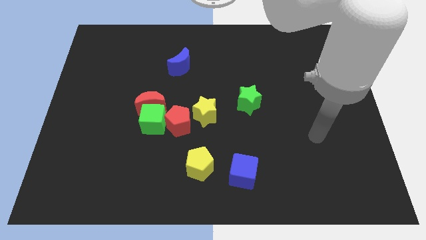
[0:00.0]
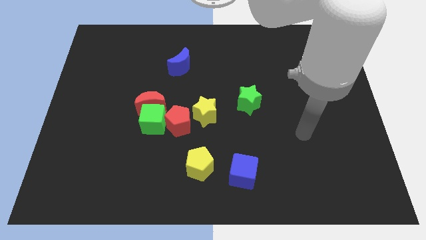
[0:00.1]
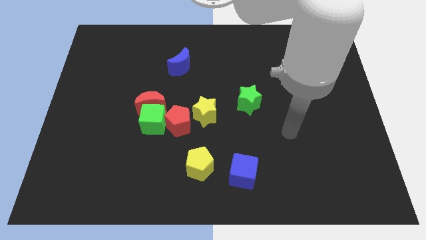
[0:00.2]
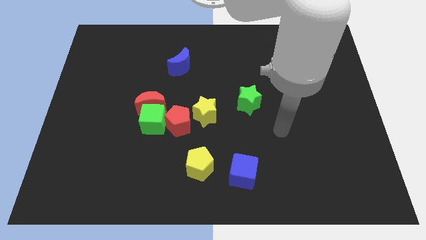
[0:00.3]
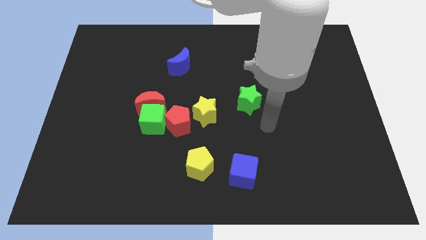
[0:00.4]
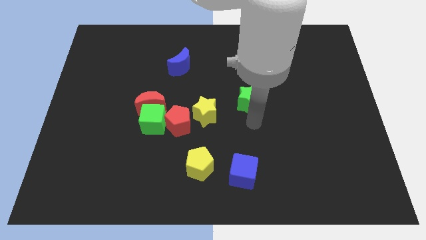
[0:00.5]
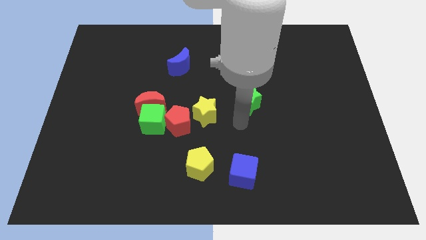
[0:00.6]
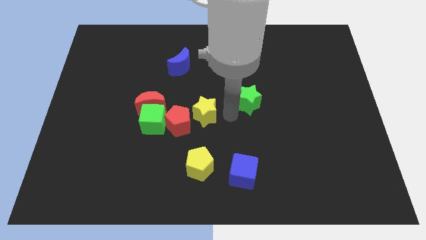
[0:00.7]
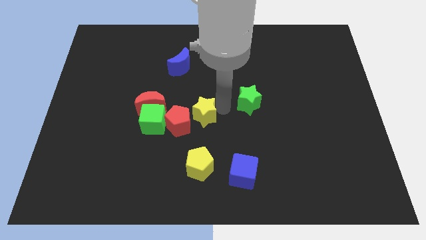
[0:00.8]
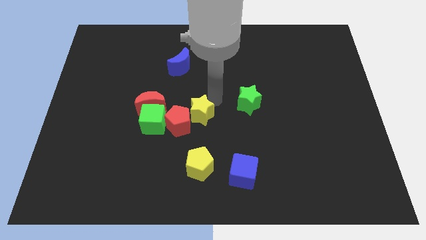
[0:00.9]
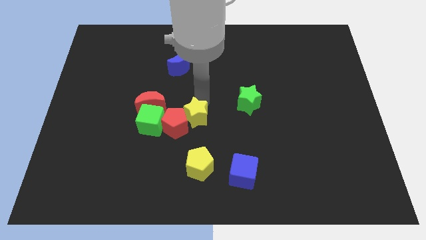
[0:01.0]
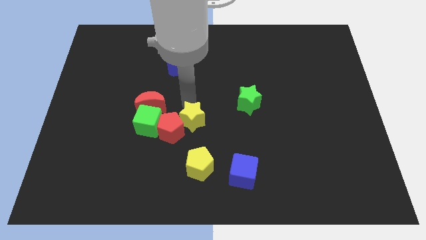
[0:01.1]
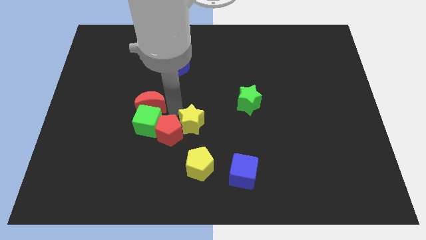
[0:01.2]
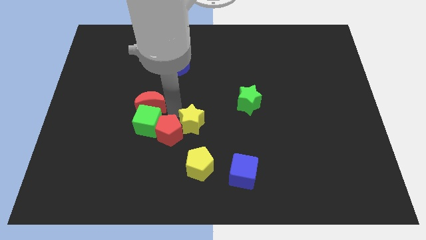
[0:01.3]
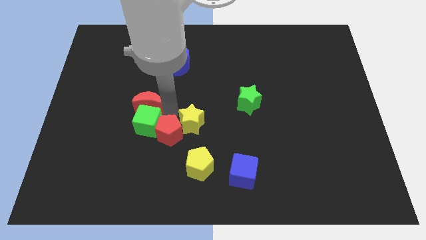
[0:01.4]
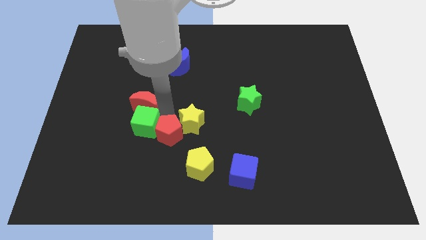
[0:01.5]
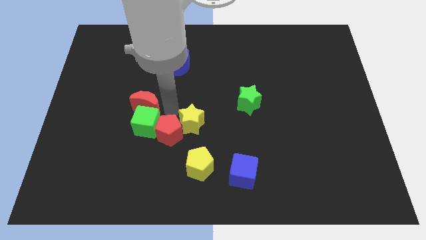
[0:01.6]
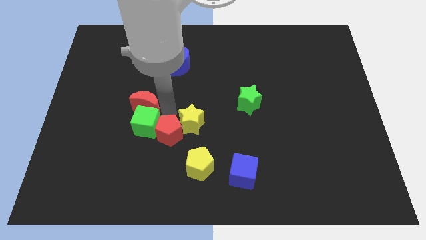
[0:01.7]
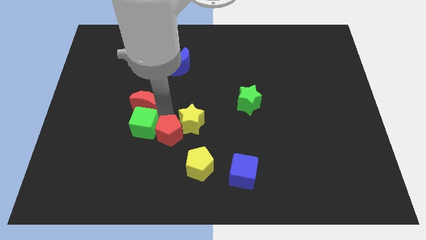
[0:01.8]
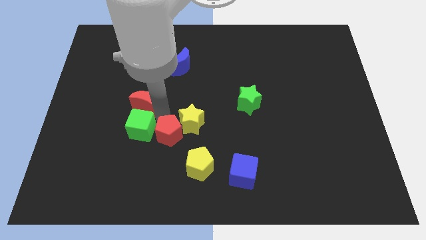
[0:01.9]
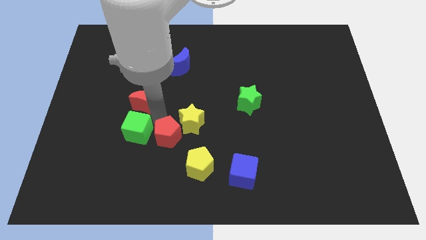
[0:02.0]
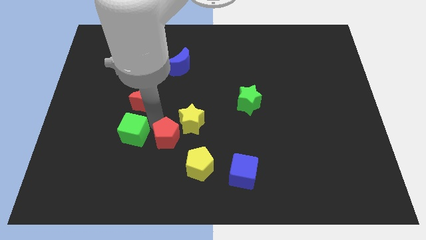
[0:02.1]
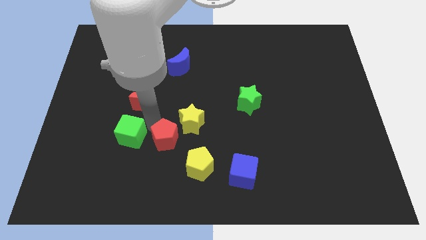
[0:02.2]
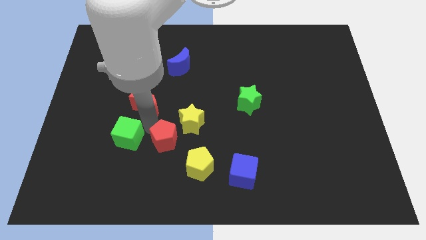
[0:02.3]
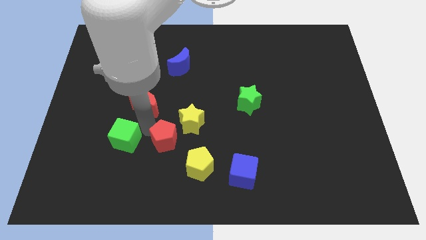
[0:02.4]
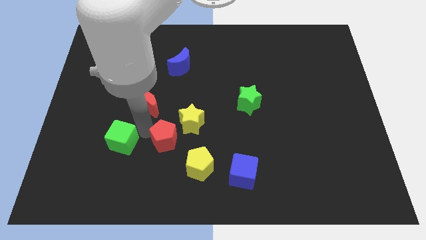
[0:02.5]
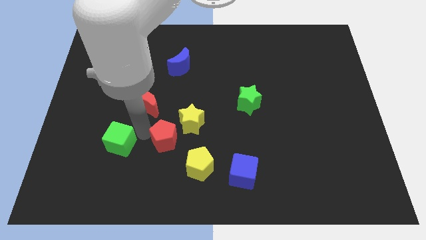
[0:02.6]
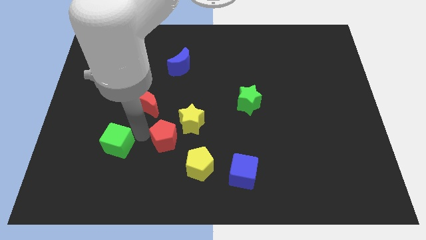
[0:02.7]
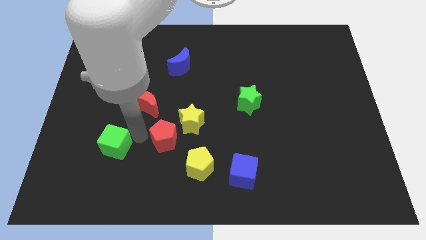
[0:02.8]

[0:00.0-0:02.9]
move the green cube away from the red moon and red pentagon

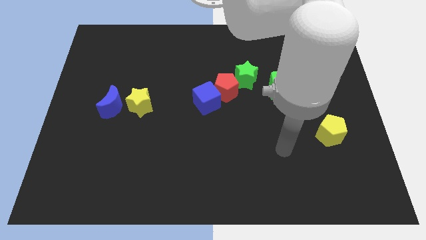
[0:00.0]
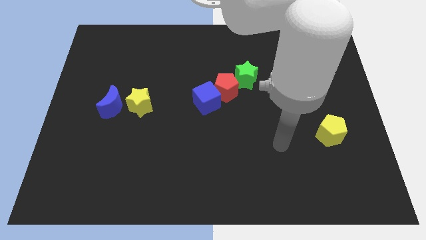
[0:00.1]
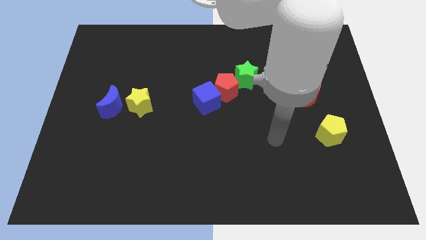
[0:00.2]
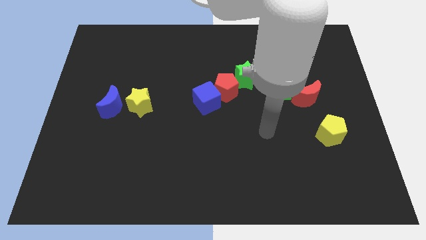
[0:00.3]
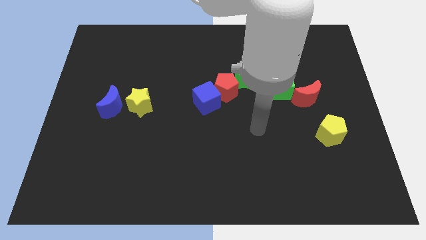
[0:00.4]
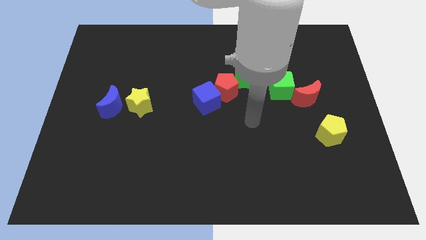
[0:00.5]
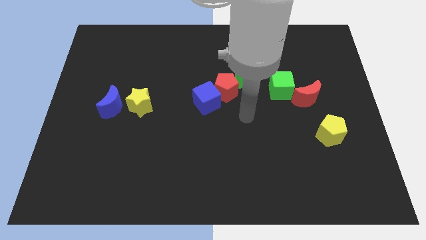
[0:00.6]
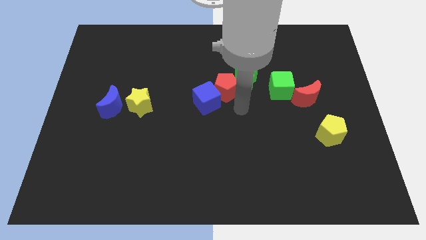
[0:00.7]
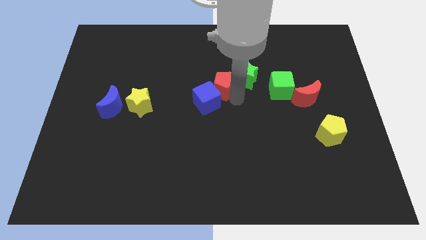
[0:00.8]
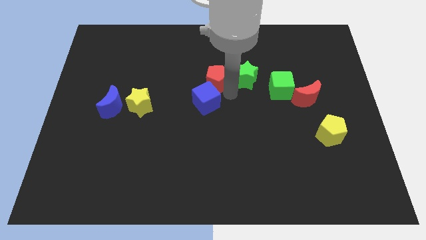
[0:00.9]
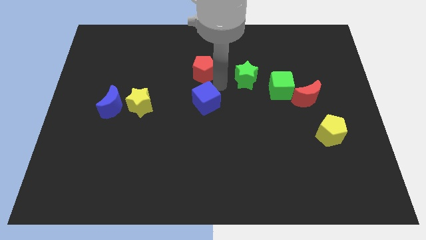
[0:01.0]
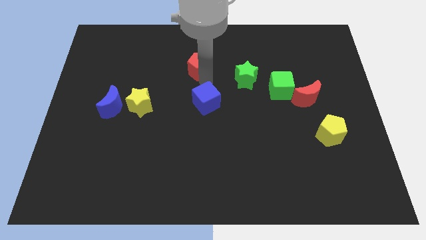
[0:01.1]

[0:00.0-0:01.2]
separate the blue cube from the red pentagon

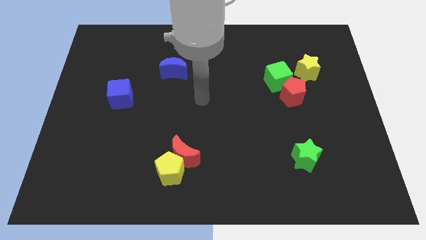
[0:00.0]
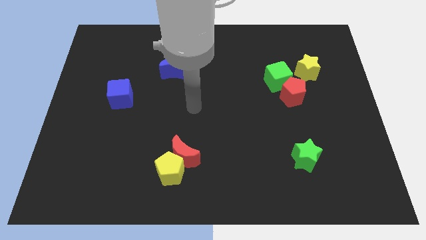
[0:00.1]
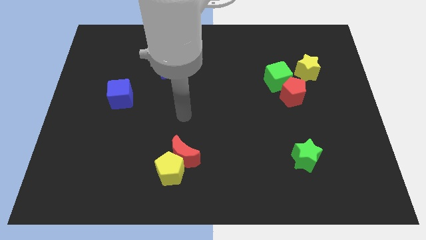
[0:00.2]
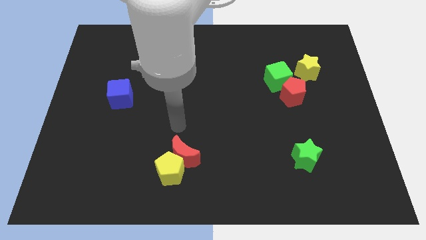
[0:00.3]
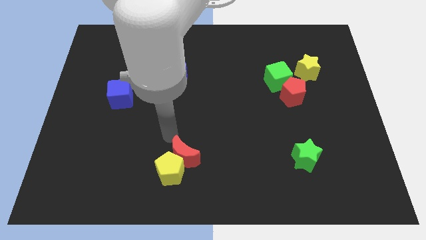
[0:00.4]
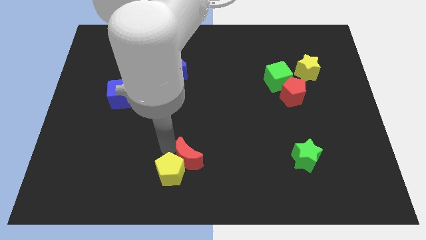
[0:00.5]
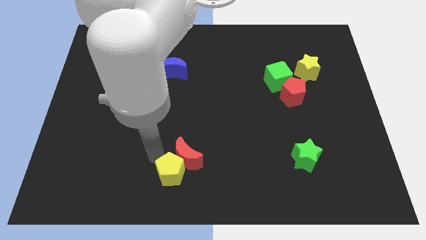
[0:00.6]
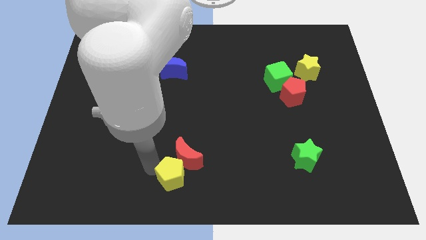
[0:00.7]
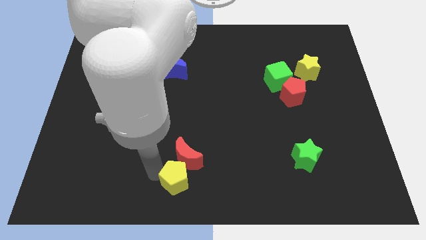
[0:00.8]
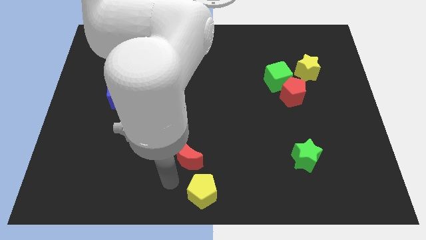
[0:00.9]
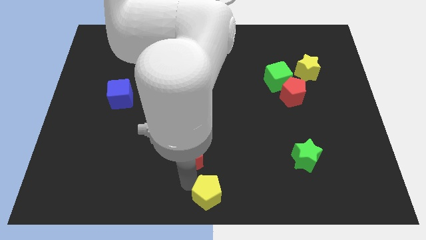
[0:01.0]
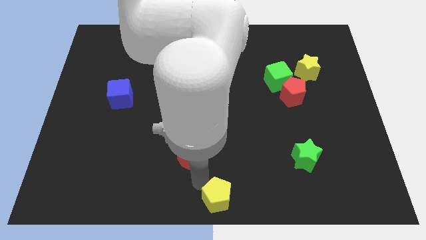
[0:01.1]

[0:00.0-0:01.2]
move the red moon away from the yellow pentagon

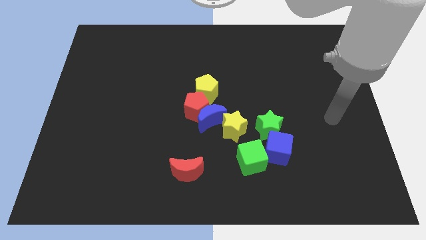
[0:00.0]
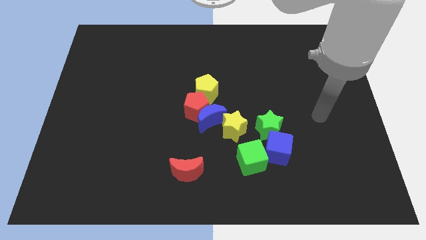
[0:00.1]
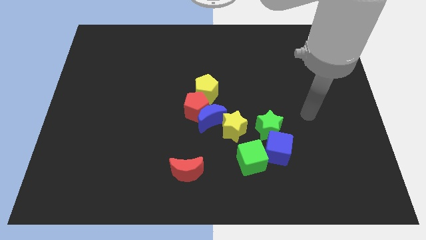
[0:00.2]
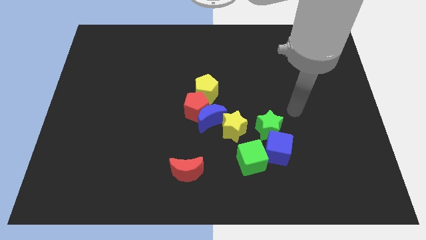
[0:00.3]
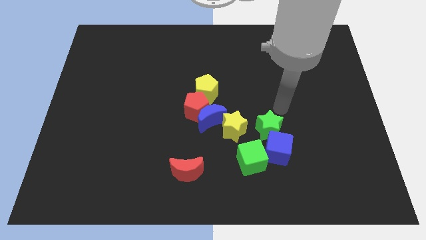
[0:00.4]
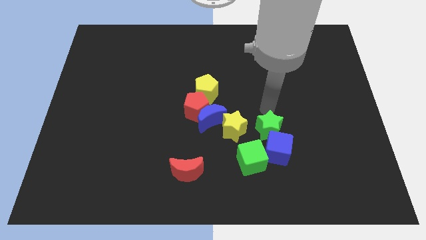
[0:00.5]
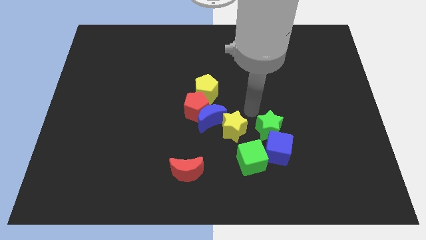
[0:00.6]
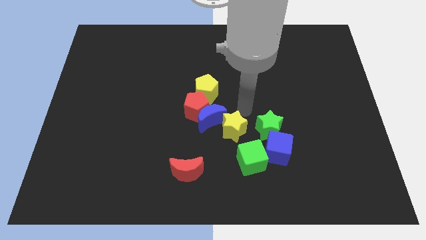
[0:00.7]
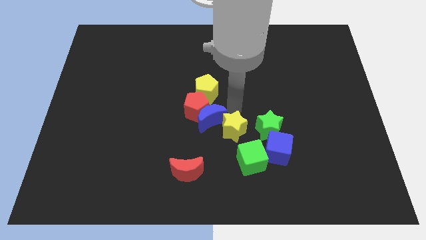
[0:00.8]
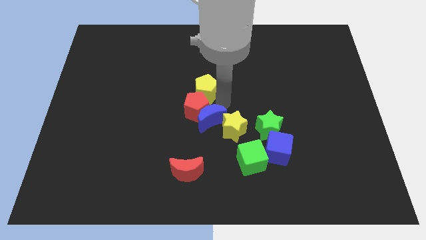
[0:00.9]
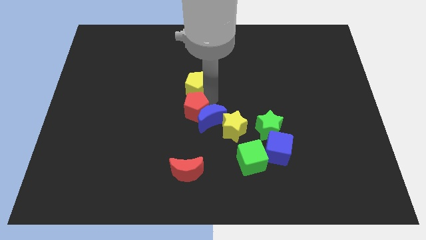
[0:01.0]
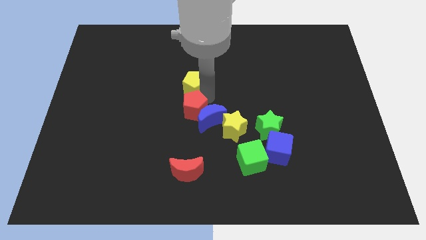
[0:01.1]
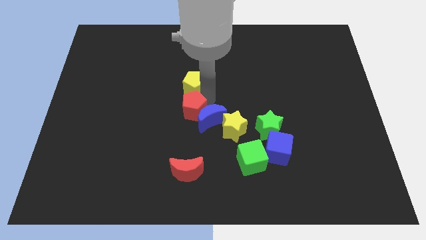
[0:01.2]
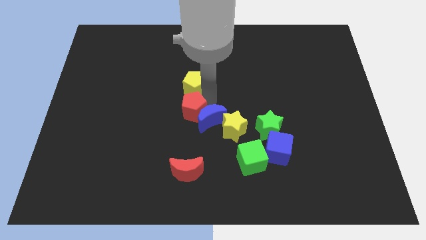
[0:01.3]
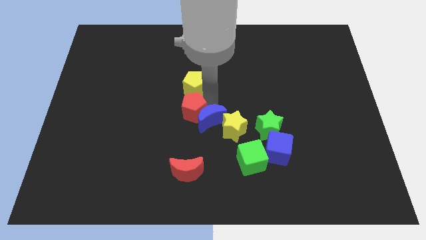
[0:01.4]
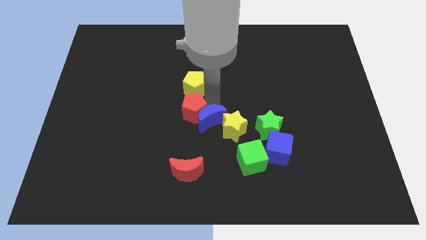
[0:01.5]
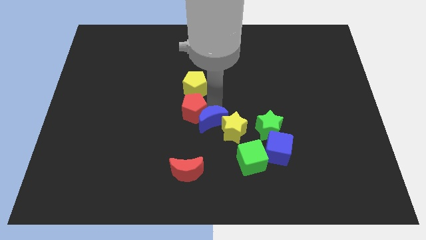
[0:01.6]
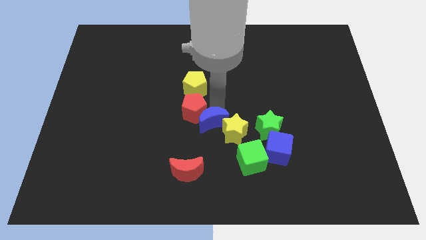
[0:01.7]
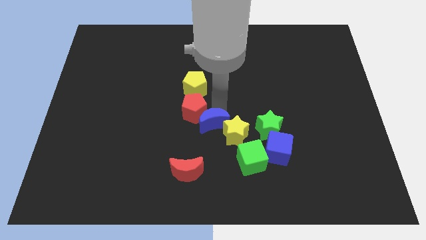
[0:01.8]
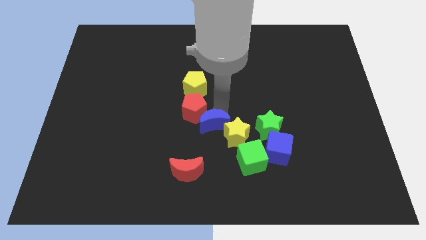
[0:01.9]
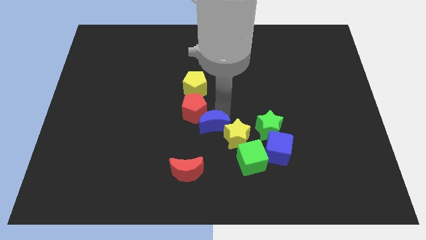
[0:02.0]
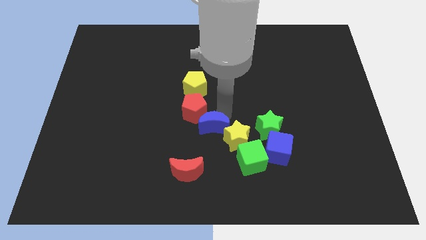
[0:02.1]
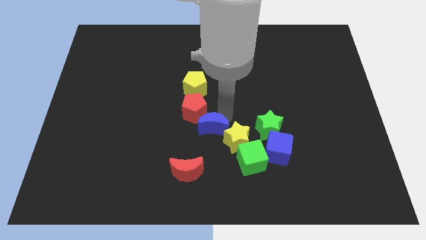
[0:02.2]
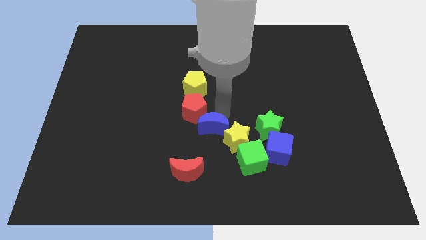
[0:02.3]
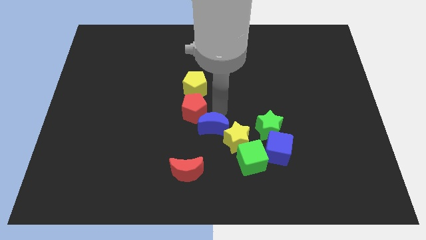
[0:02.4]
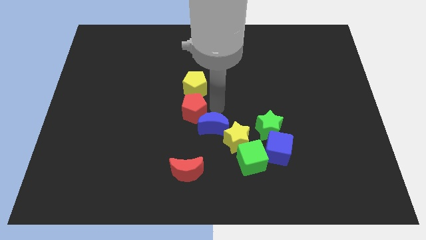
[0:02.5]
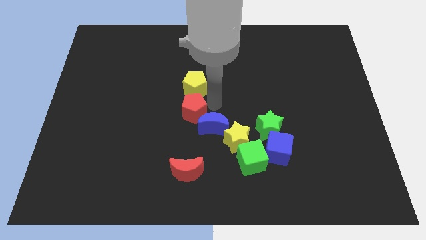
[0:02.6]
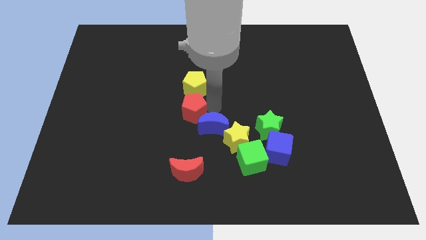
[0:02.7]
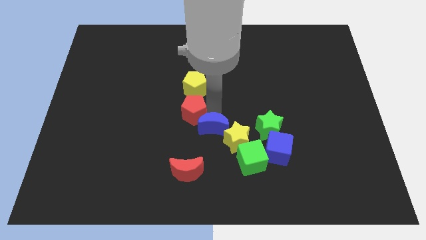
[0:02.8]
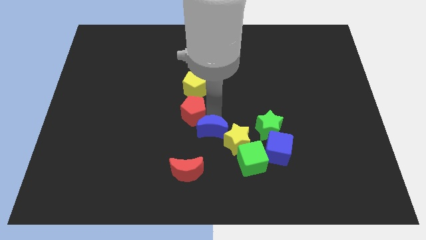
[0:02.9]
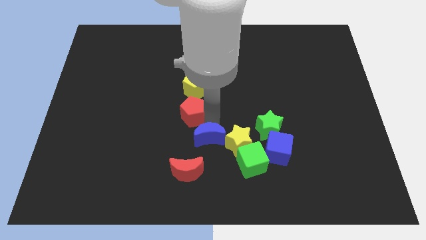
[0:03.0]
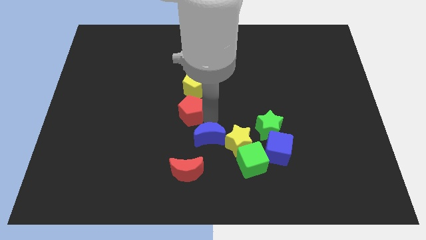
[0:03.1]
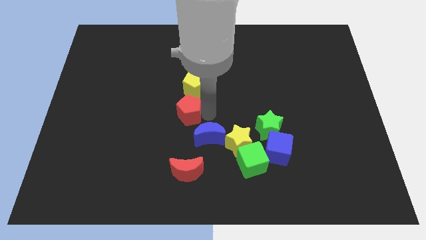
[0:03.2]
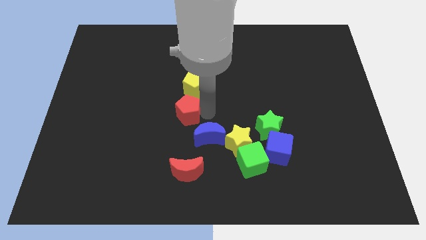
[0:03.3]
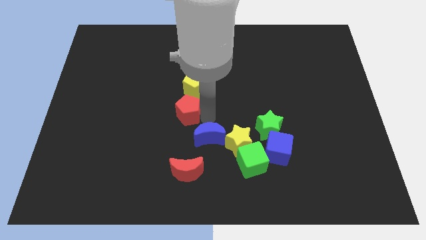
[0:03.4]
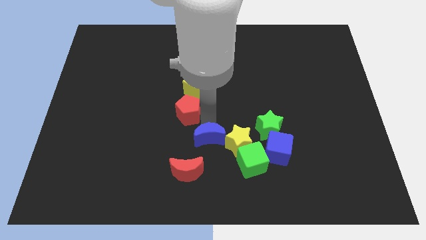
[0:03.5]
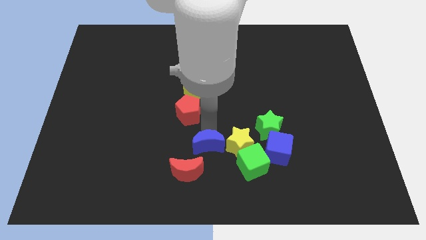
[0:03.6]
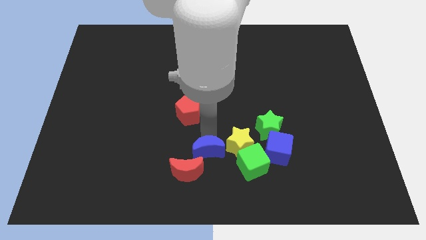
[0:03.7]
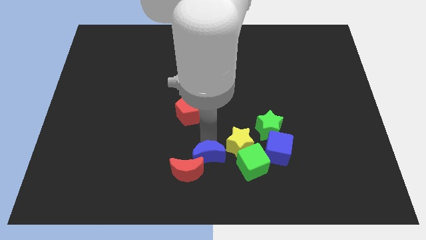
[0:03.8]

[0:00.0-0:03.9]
pull the blue moon apart from the red pentagon, yellow star, and yellow pentagon
